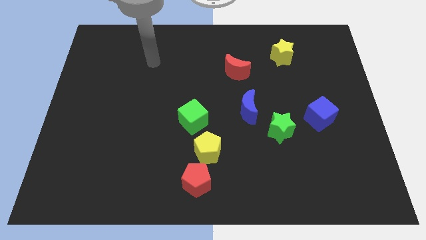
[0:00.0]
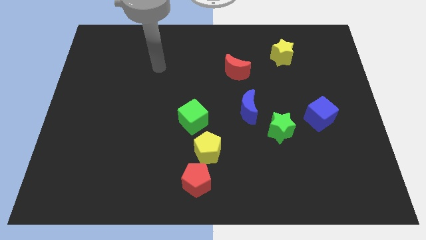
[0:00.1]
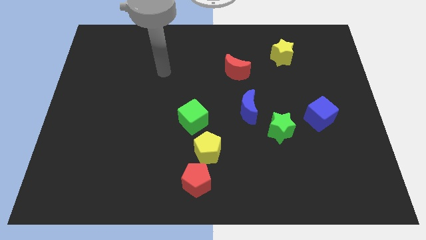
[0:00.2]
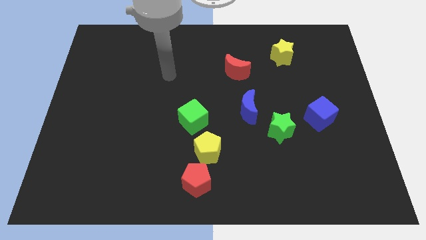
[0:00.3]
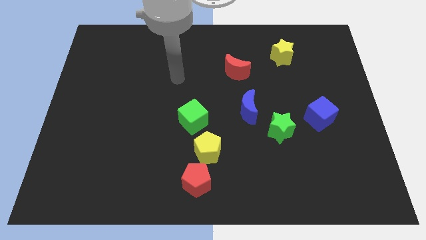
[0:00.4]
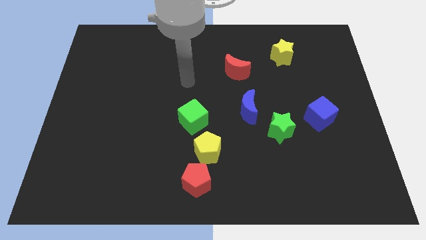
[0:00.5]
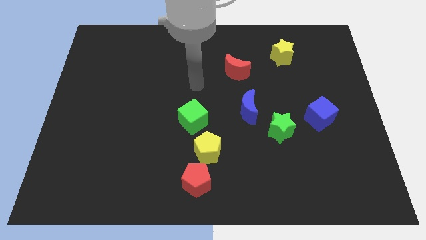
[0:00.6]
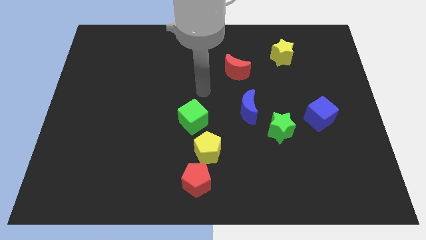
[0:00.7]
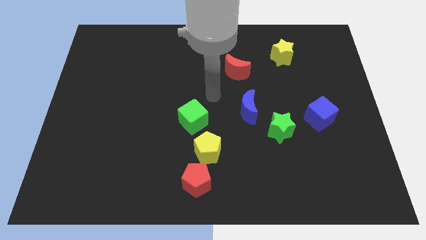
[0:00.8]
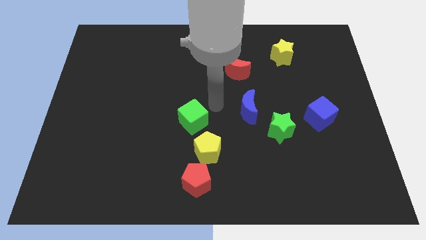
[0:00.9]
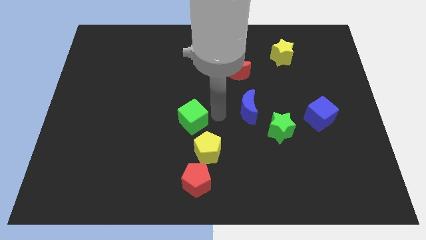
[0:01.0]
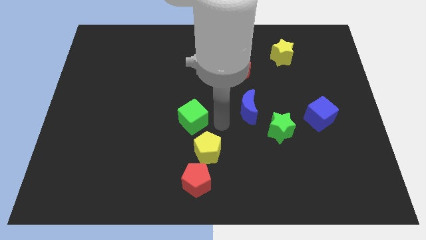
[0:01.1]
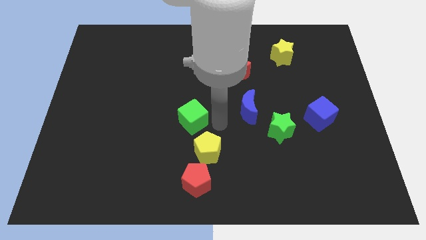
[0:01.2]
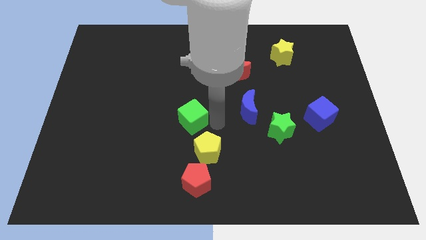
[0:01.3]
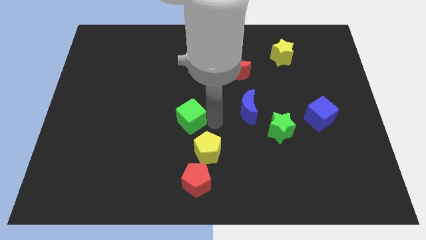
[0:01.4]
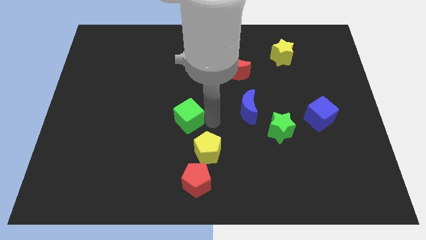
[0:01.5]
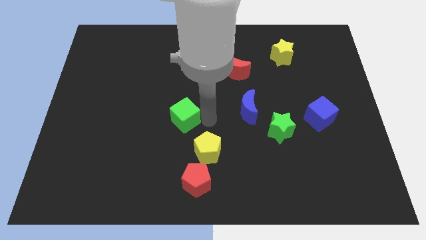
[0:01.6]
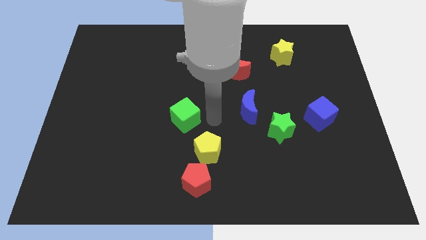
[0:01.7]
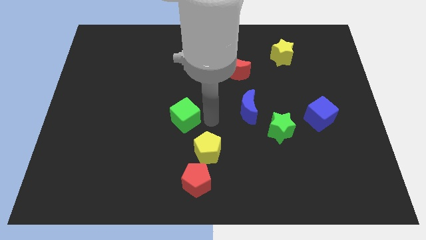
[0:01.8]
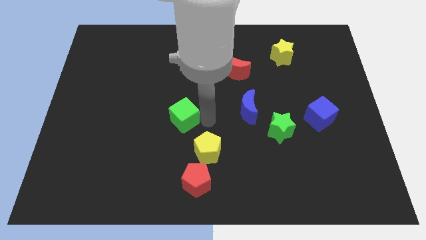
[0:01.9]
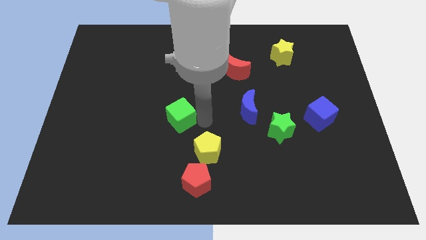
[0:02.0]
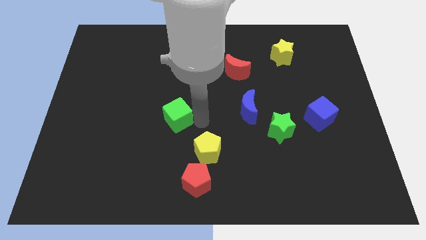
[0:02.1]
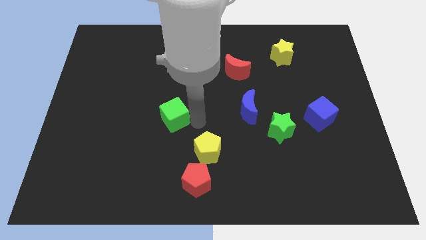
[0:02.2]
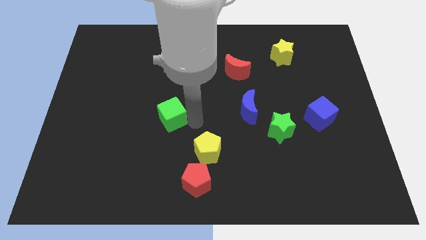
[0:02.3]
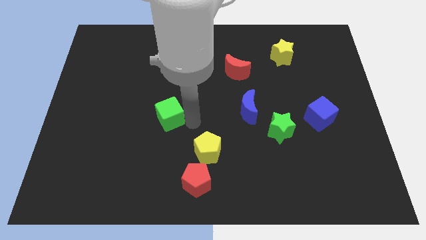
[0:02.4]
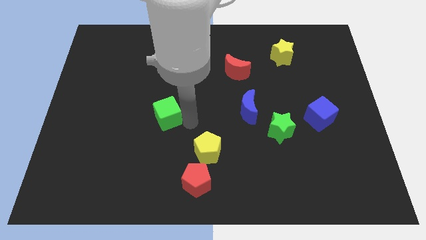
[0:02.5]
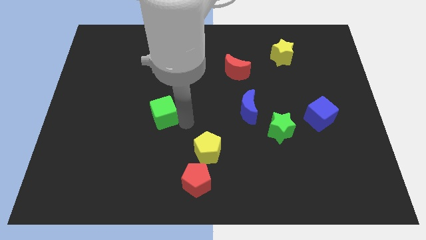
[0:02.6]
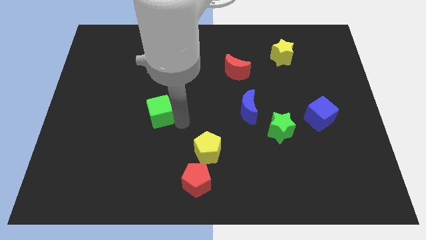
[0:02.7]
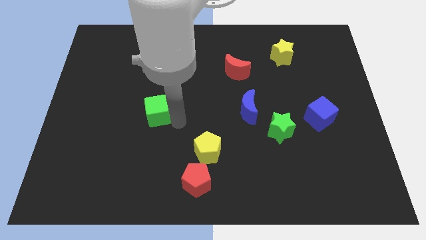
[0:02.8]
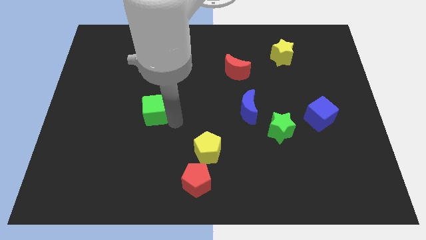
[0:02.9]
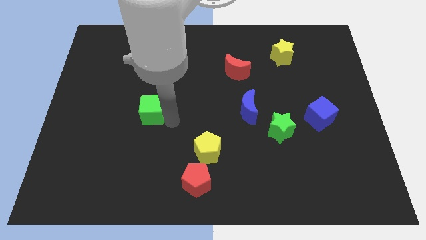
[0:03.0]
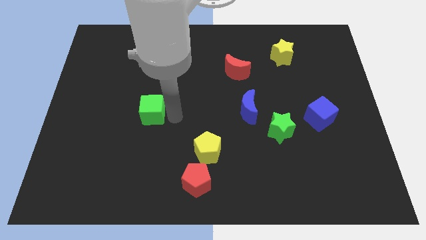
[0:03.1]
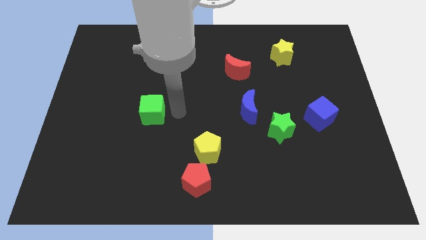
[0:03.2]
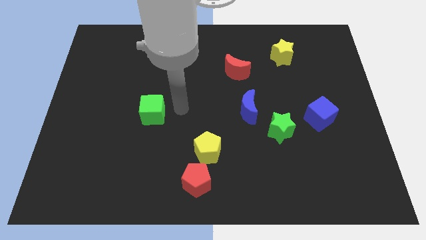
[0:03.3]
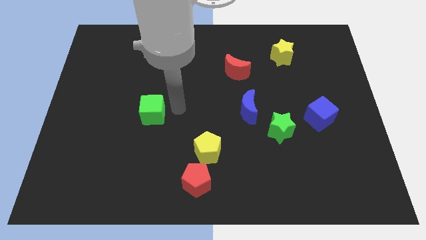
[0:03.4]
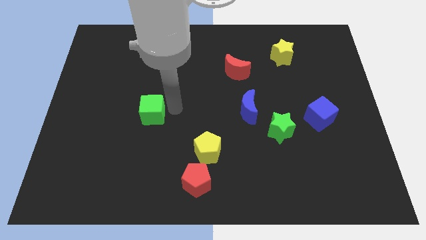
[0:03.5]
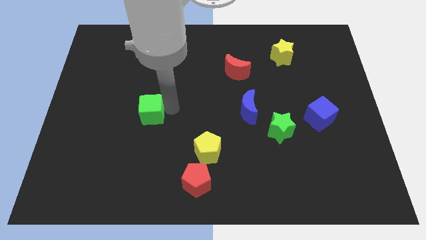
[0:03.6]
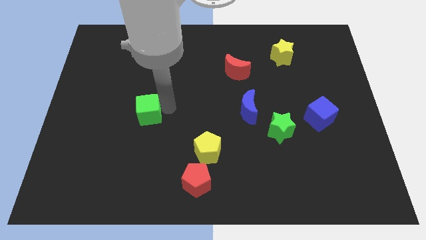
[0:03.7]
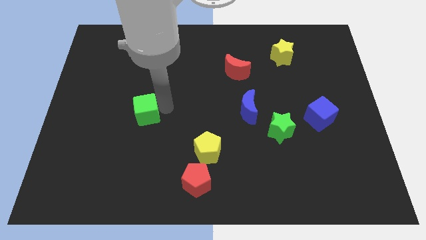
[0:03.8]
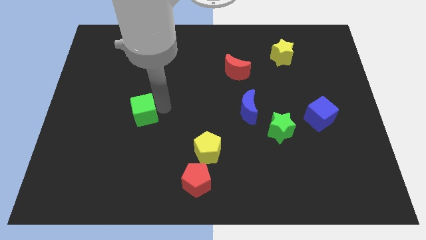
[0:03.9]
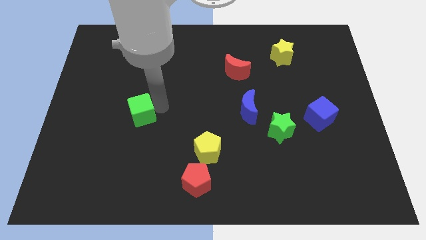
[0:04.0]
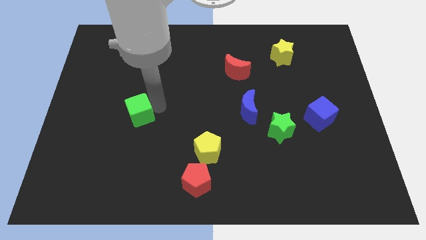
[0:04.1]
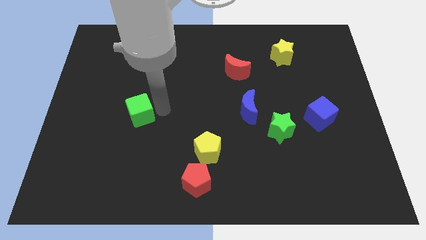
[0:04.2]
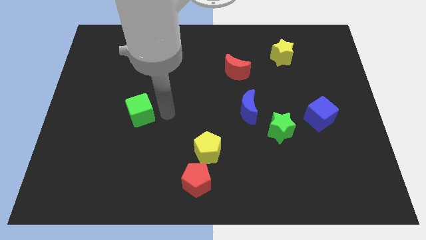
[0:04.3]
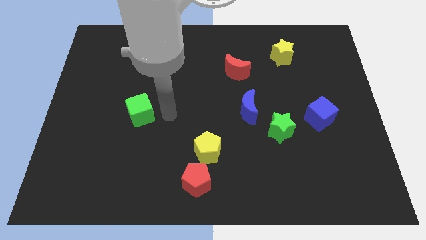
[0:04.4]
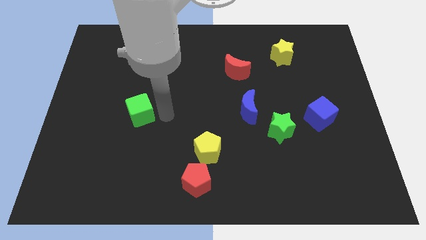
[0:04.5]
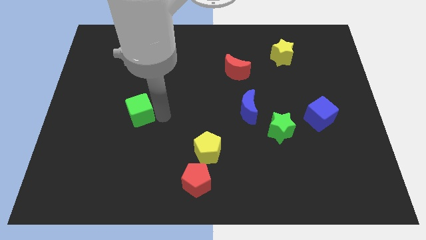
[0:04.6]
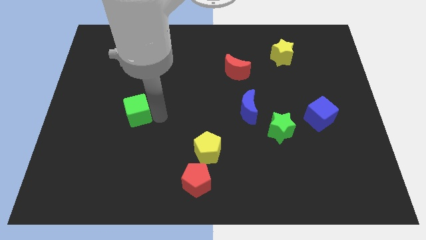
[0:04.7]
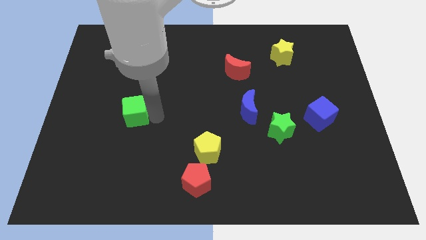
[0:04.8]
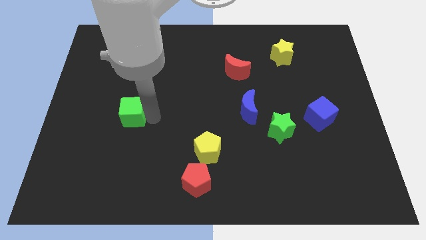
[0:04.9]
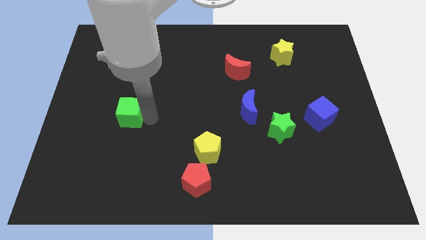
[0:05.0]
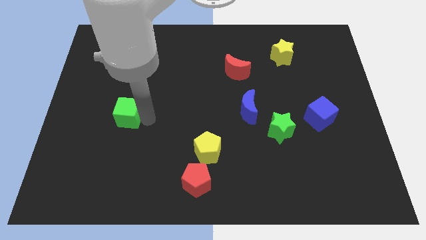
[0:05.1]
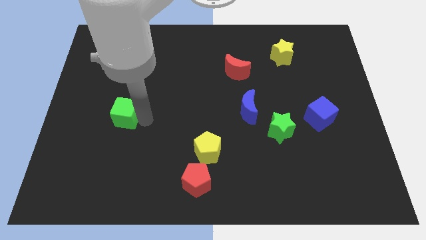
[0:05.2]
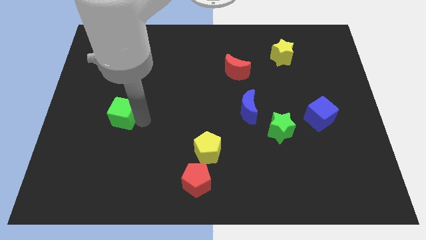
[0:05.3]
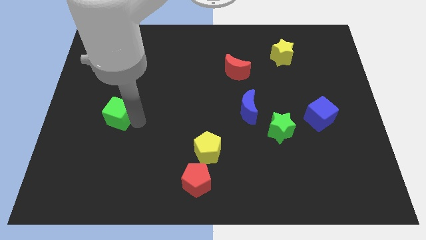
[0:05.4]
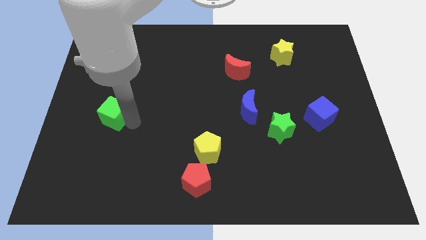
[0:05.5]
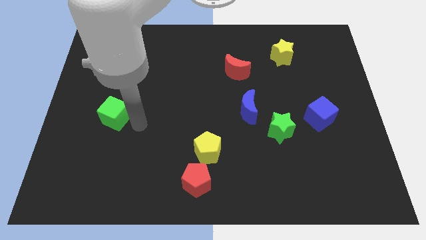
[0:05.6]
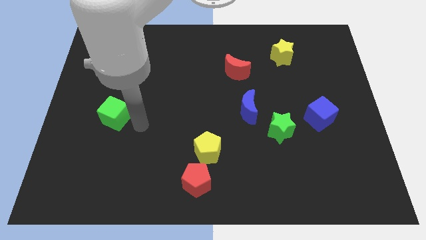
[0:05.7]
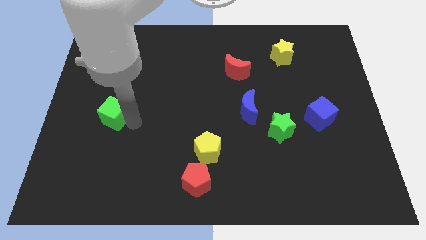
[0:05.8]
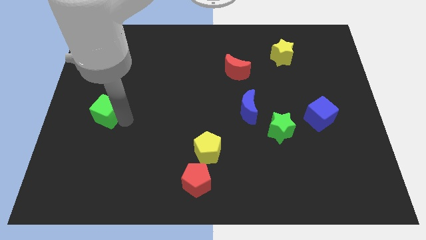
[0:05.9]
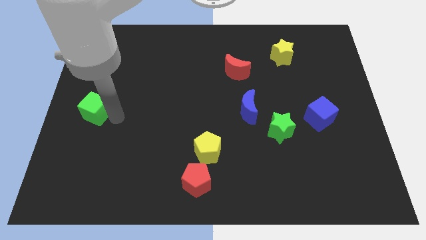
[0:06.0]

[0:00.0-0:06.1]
slide the green cube to the center left
